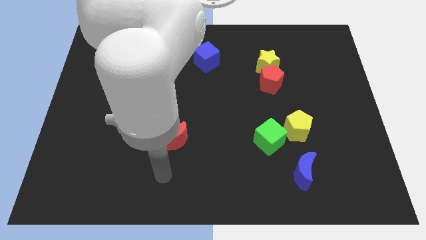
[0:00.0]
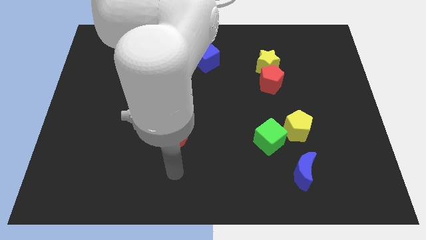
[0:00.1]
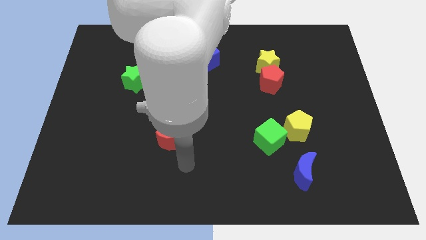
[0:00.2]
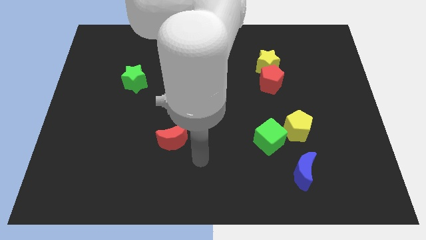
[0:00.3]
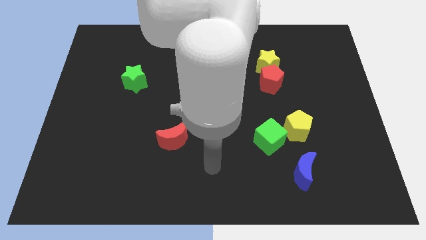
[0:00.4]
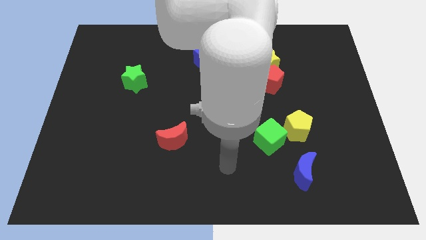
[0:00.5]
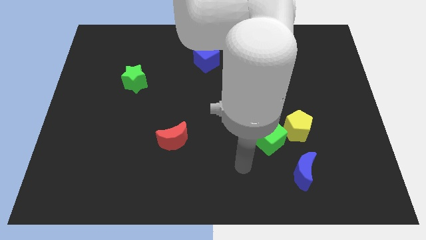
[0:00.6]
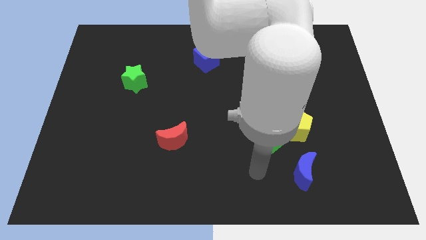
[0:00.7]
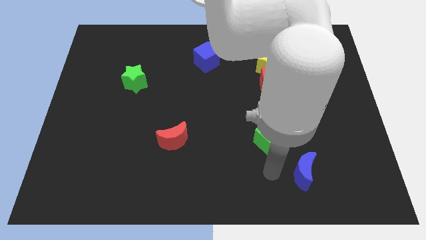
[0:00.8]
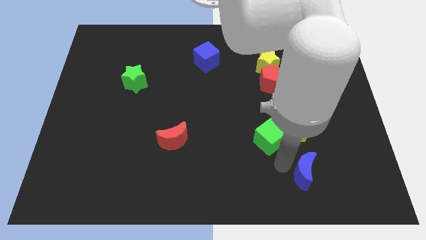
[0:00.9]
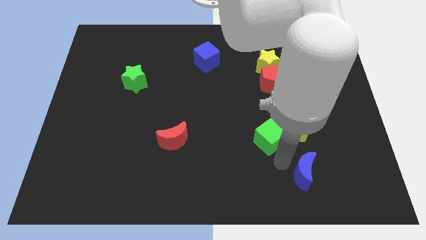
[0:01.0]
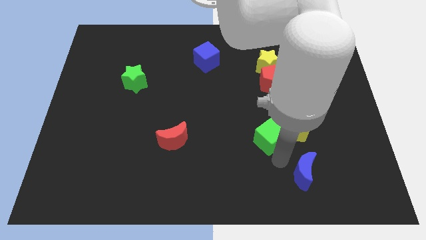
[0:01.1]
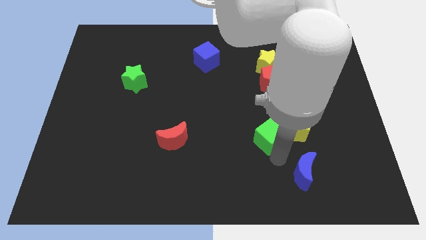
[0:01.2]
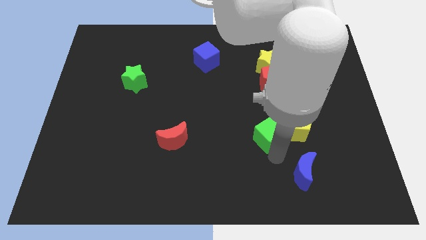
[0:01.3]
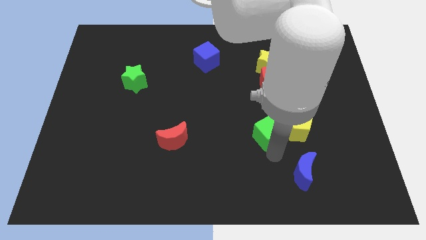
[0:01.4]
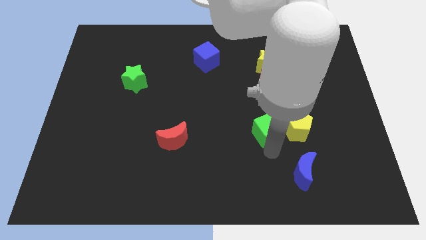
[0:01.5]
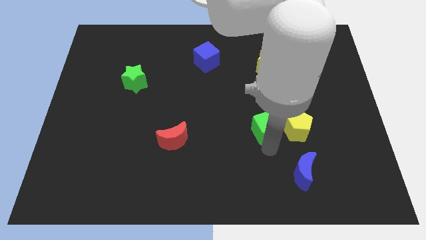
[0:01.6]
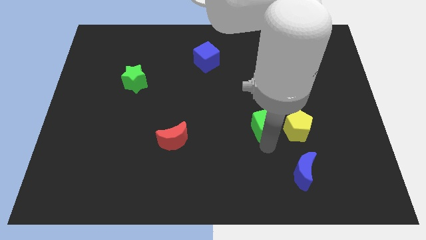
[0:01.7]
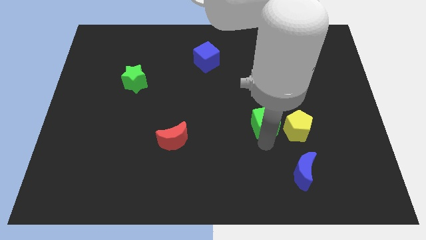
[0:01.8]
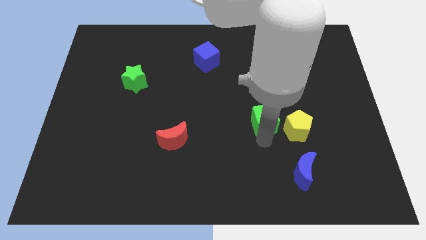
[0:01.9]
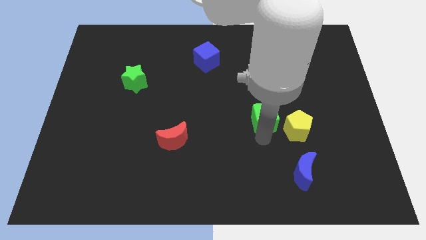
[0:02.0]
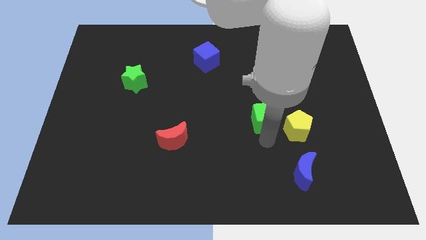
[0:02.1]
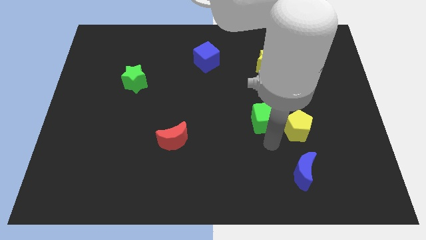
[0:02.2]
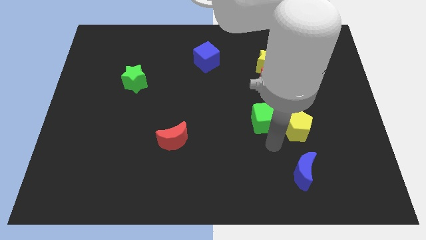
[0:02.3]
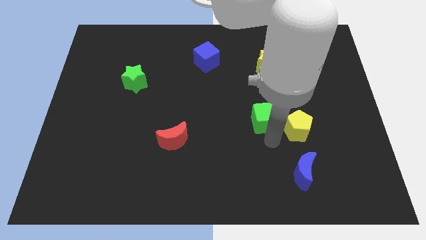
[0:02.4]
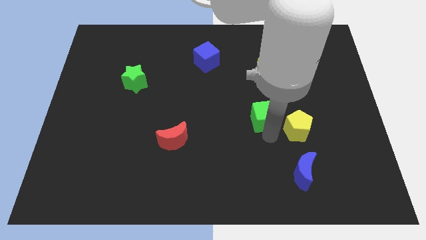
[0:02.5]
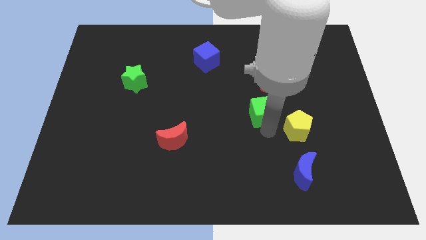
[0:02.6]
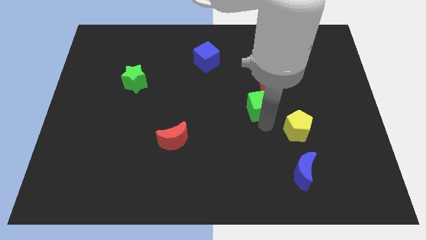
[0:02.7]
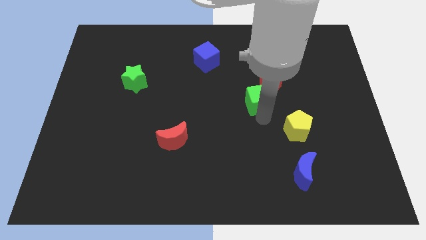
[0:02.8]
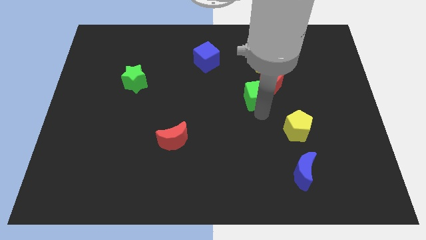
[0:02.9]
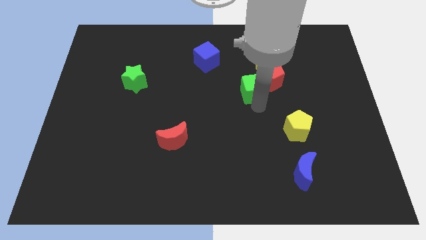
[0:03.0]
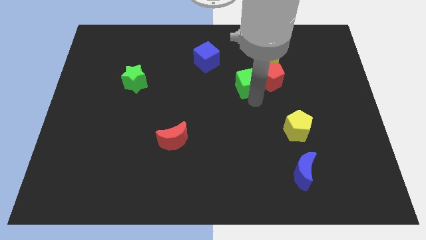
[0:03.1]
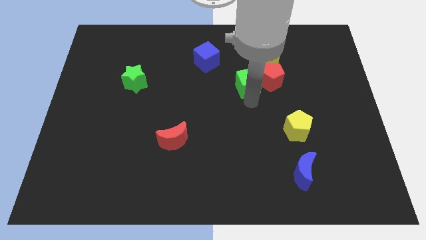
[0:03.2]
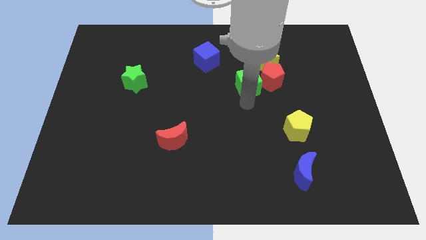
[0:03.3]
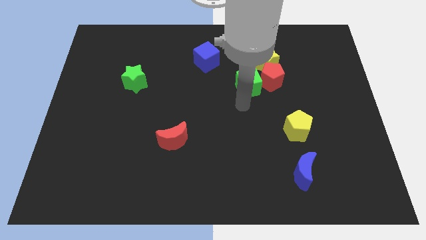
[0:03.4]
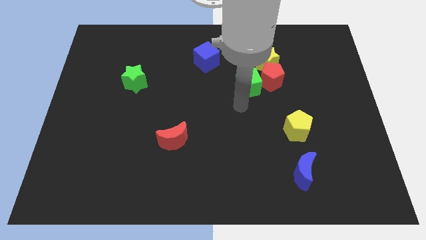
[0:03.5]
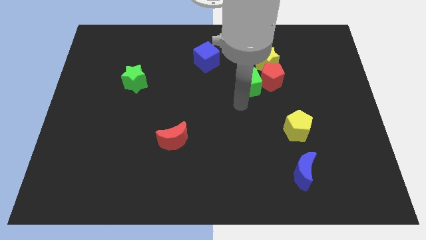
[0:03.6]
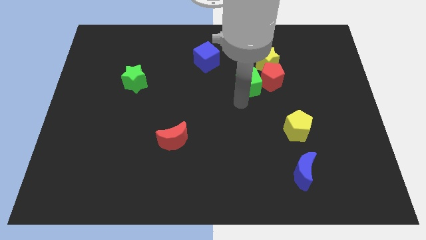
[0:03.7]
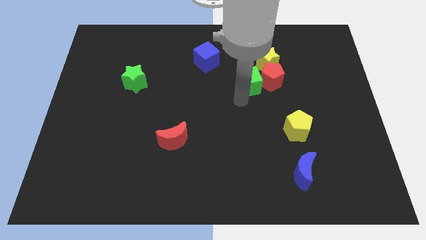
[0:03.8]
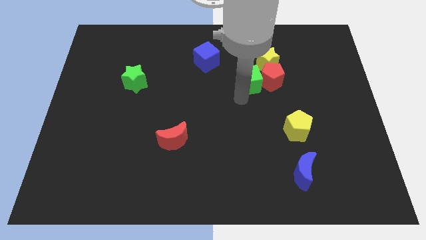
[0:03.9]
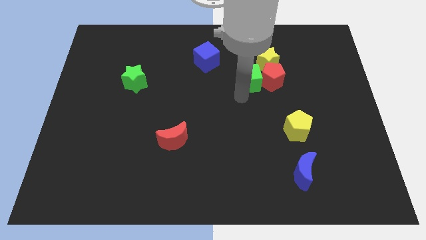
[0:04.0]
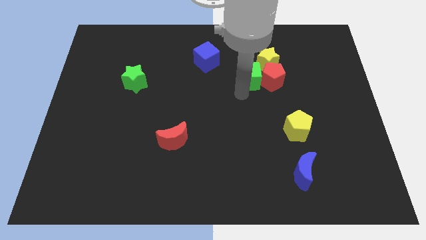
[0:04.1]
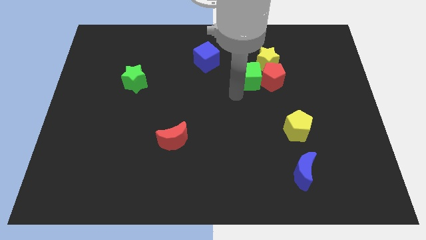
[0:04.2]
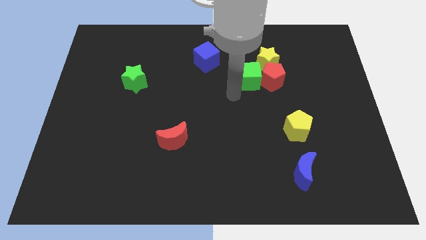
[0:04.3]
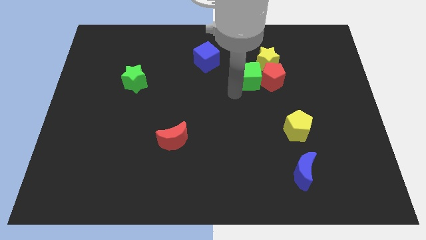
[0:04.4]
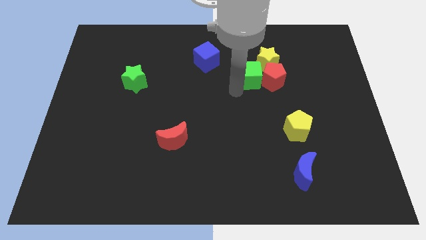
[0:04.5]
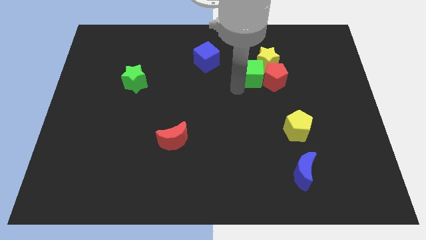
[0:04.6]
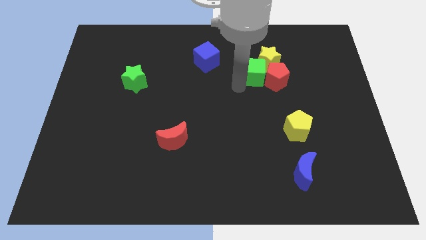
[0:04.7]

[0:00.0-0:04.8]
push the green cube to the yellow star

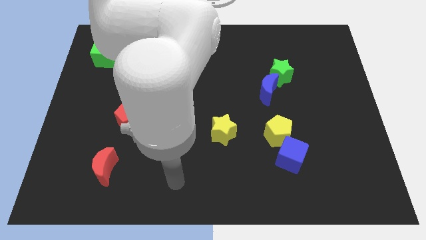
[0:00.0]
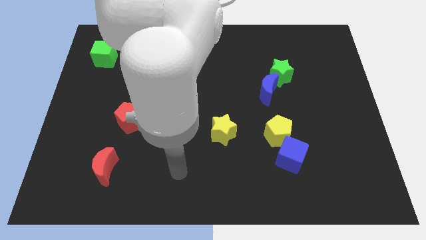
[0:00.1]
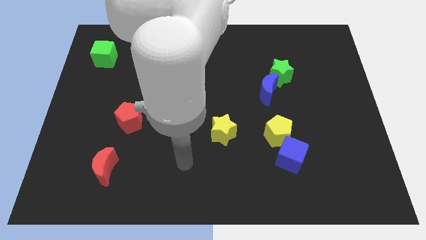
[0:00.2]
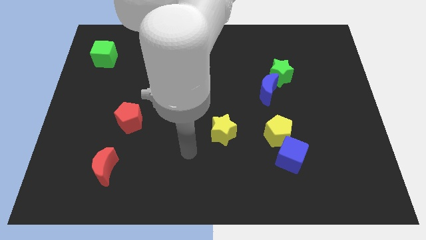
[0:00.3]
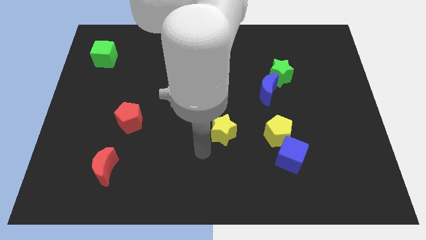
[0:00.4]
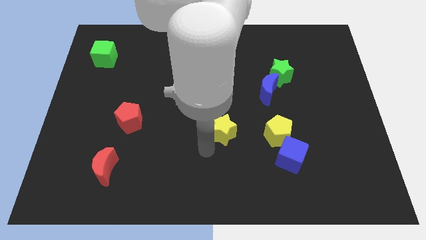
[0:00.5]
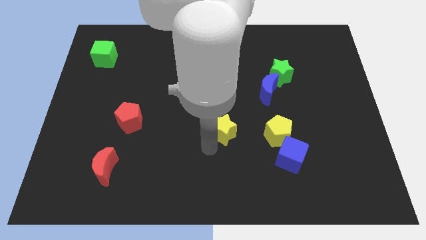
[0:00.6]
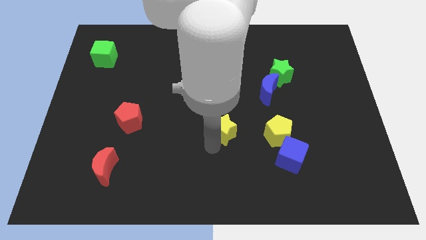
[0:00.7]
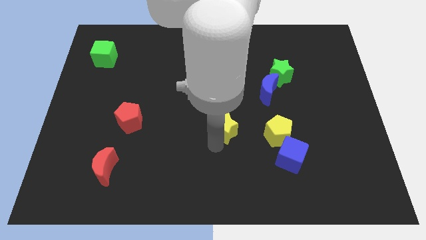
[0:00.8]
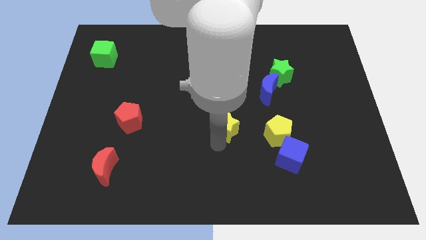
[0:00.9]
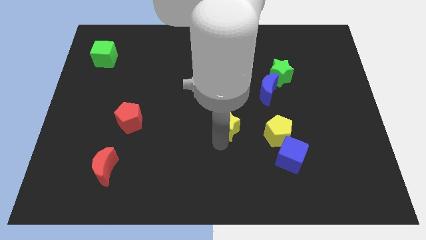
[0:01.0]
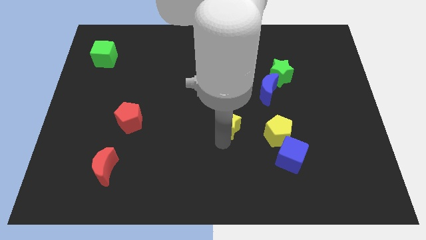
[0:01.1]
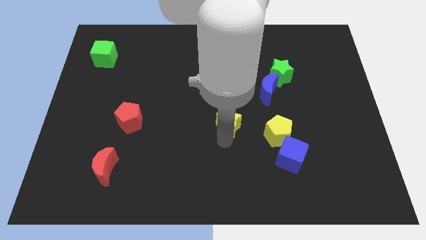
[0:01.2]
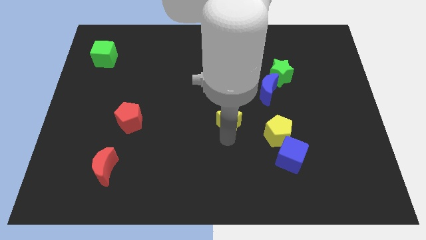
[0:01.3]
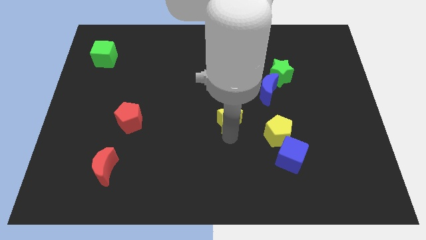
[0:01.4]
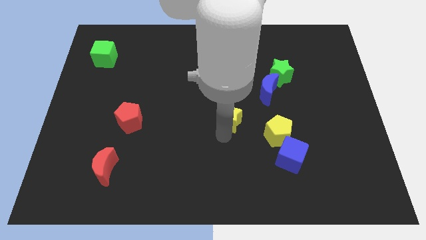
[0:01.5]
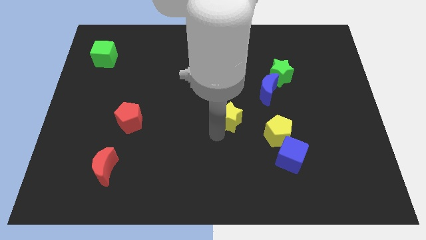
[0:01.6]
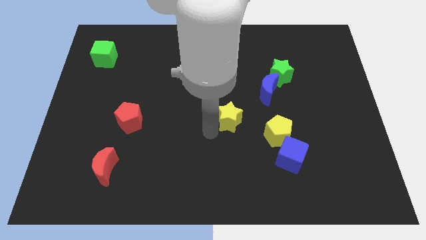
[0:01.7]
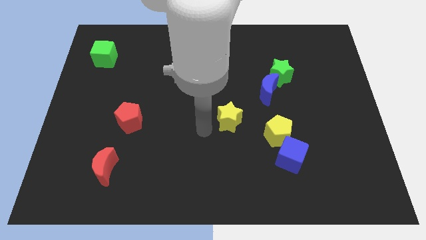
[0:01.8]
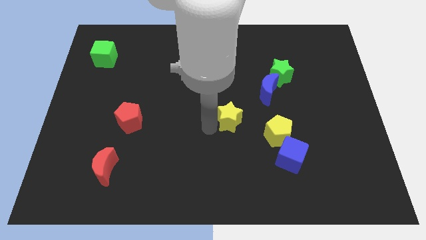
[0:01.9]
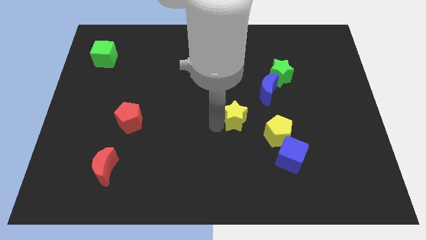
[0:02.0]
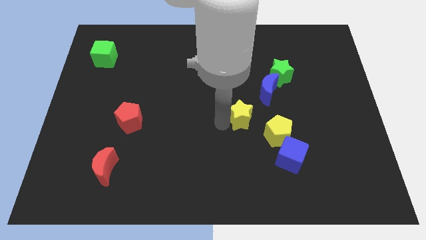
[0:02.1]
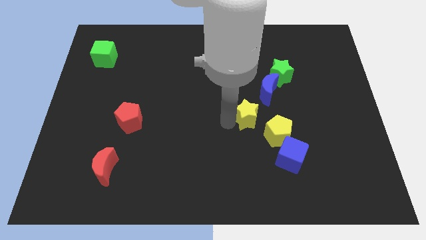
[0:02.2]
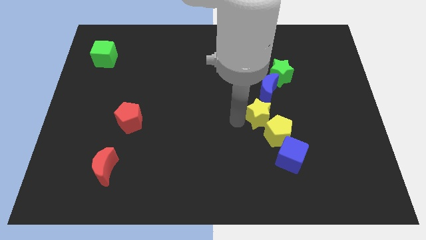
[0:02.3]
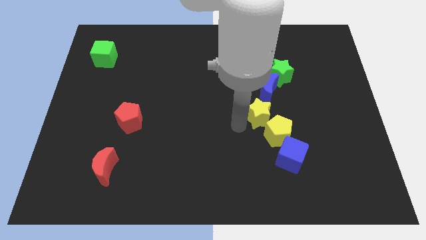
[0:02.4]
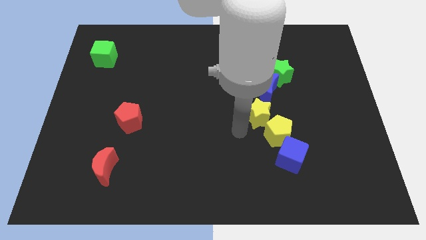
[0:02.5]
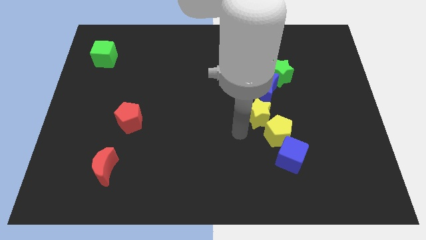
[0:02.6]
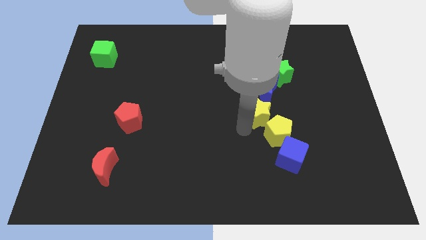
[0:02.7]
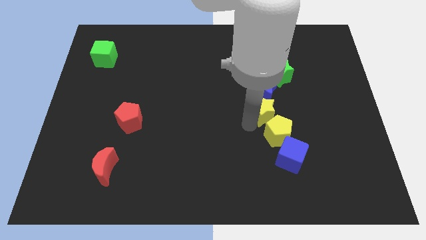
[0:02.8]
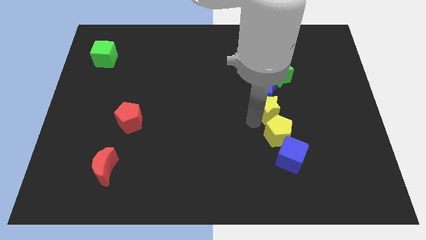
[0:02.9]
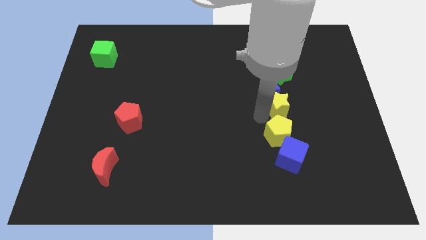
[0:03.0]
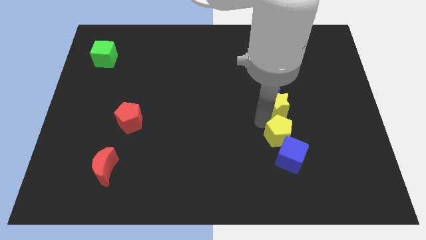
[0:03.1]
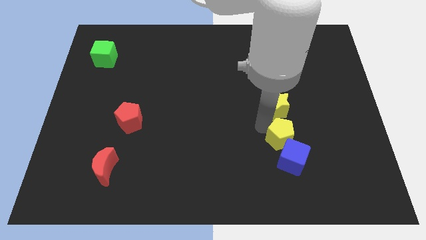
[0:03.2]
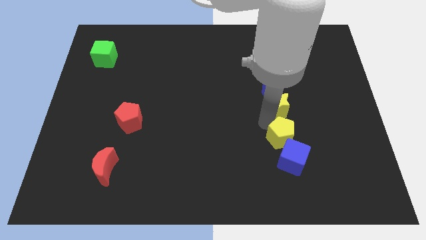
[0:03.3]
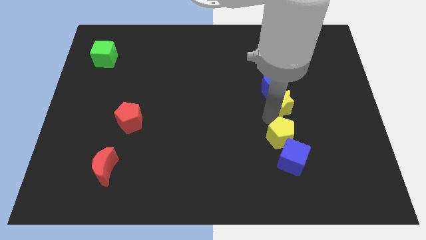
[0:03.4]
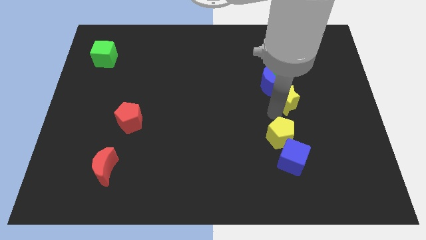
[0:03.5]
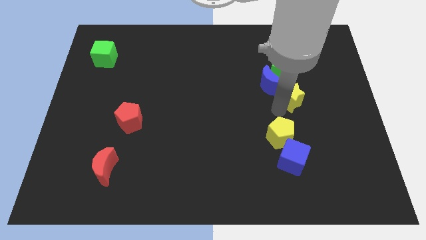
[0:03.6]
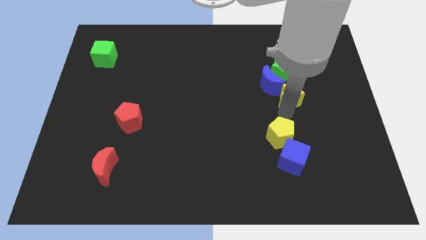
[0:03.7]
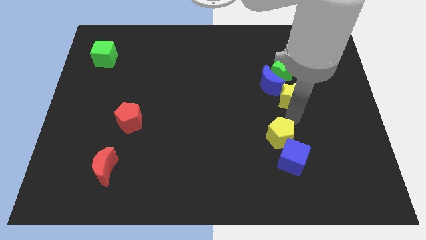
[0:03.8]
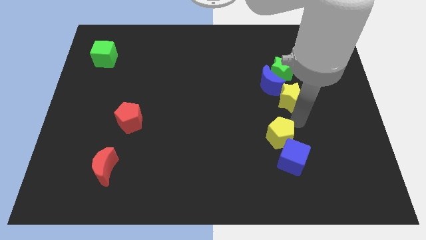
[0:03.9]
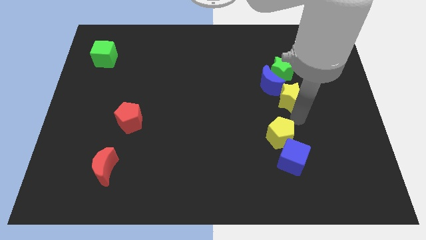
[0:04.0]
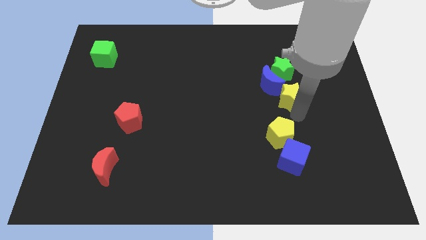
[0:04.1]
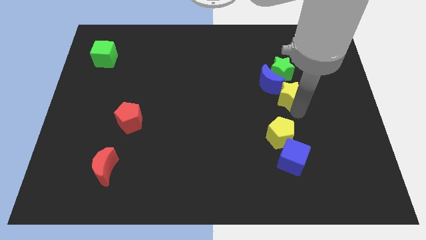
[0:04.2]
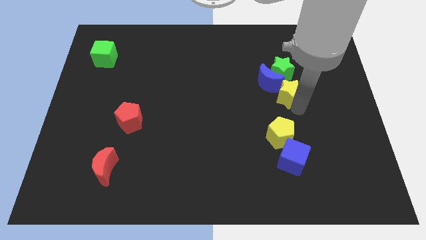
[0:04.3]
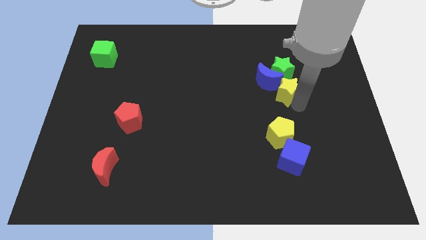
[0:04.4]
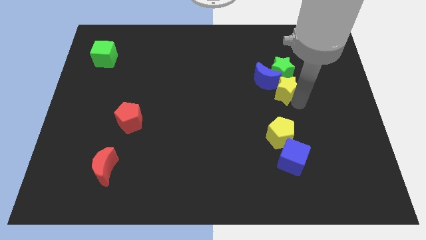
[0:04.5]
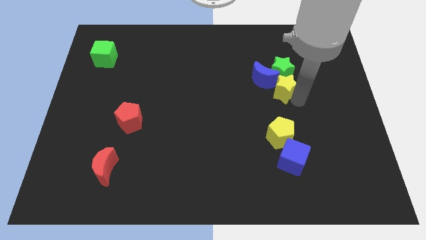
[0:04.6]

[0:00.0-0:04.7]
push the yellow star close to the green star
